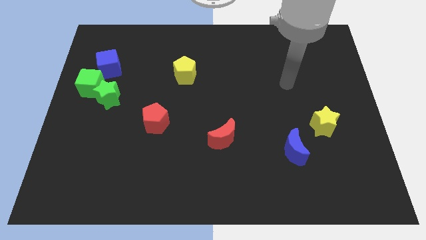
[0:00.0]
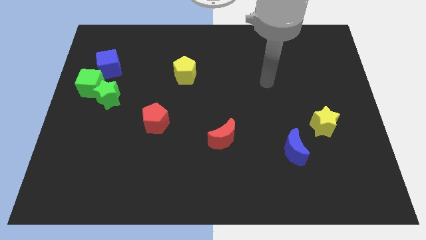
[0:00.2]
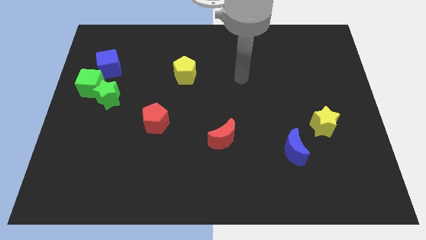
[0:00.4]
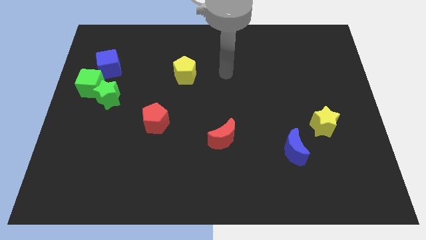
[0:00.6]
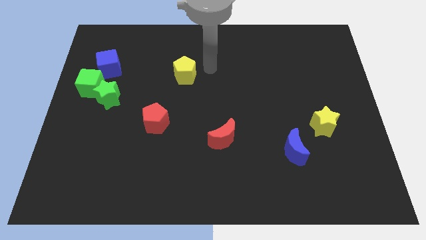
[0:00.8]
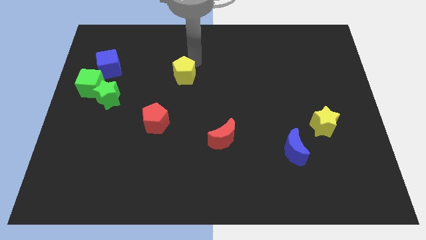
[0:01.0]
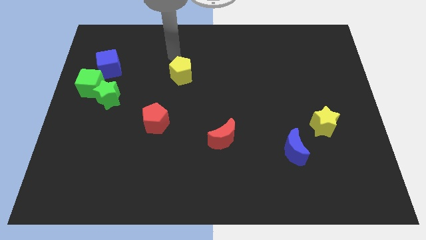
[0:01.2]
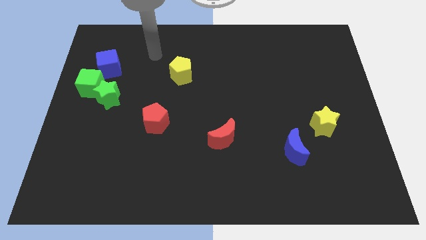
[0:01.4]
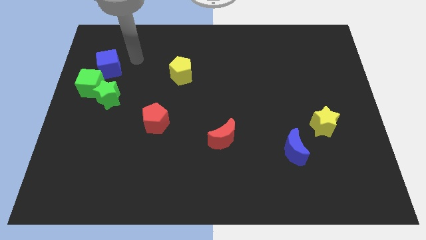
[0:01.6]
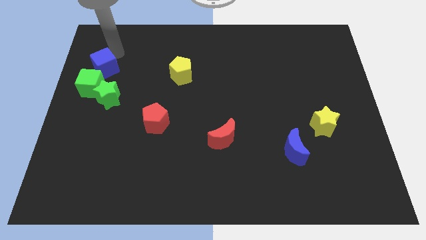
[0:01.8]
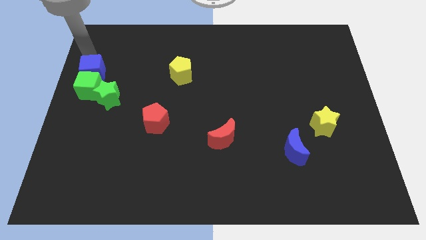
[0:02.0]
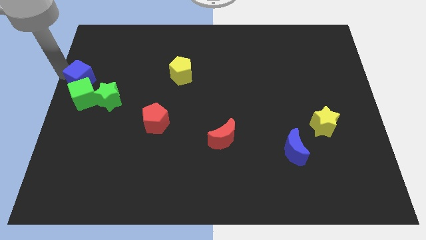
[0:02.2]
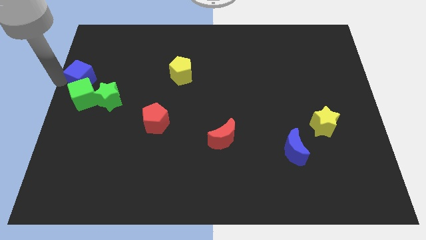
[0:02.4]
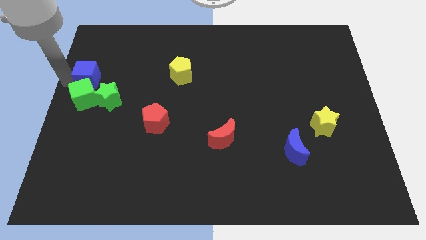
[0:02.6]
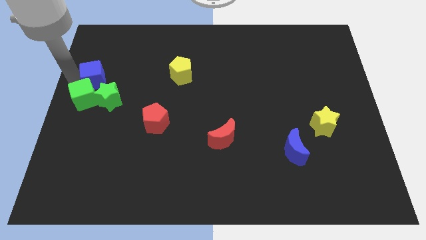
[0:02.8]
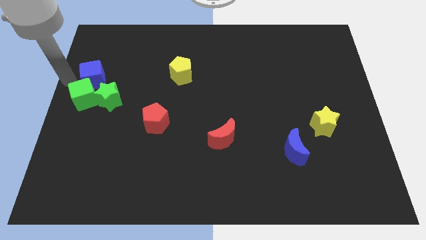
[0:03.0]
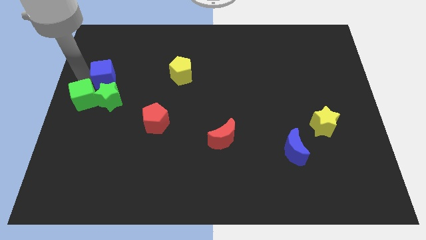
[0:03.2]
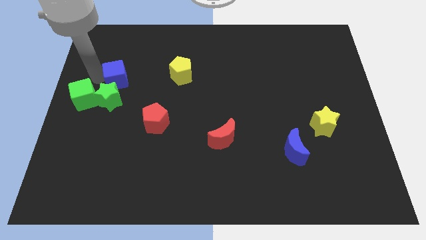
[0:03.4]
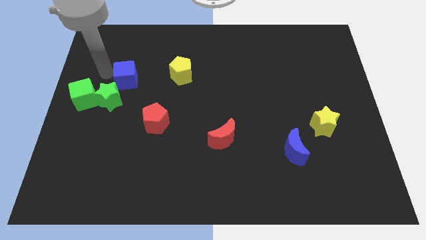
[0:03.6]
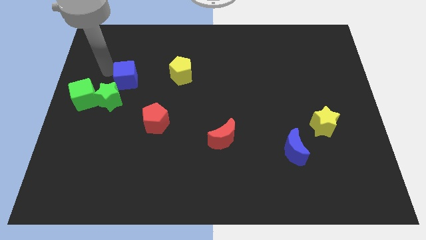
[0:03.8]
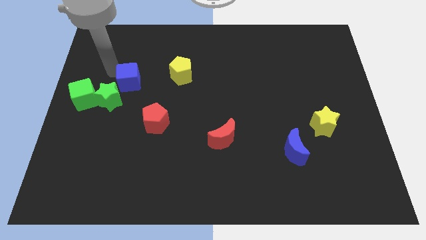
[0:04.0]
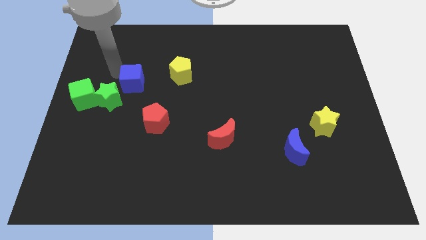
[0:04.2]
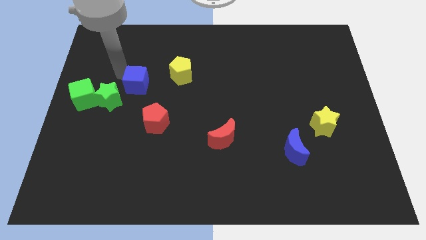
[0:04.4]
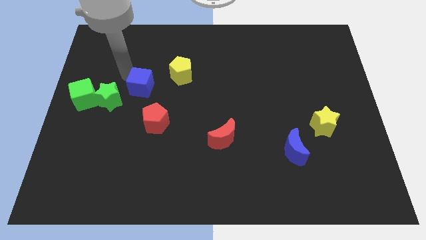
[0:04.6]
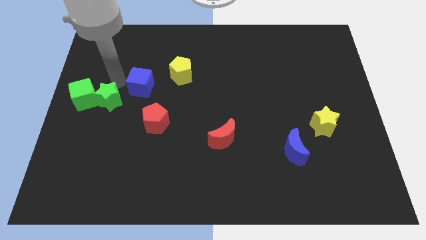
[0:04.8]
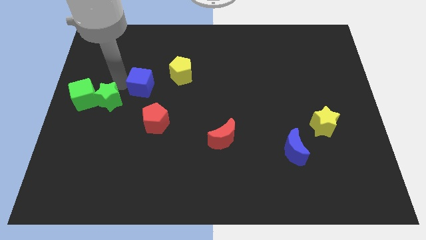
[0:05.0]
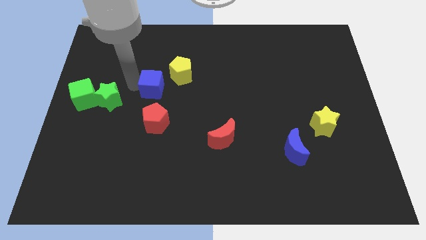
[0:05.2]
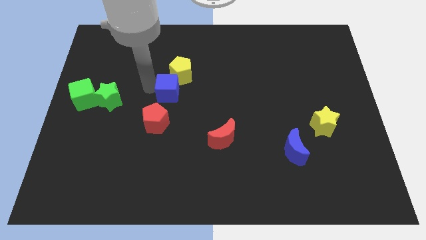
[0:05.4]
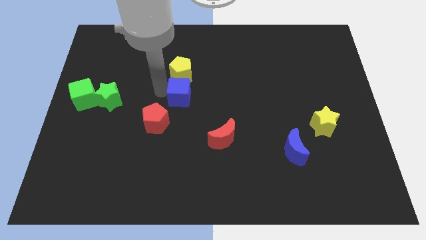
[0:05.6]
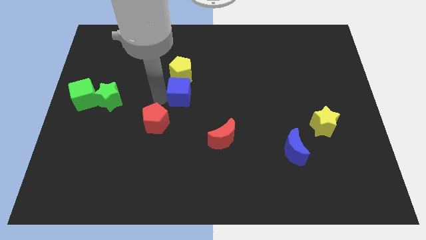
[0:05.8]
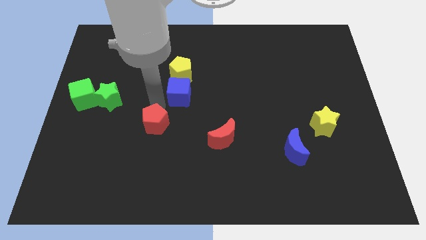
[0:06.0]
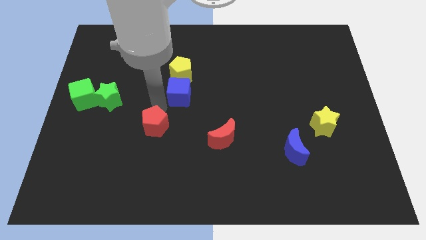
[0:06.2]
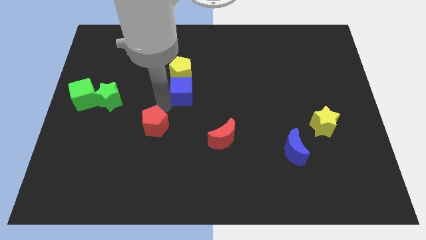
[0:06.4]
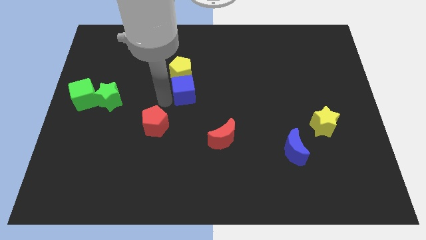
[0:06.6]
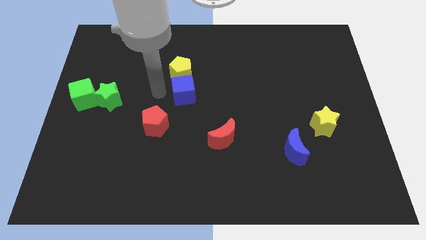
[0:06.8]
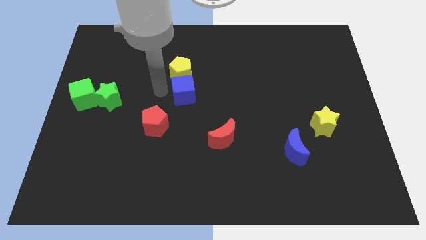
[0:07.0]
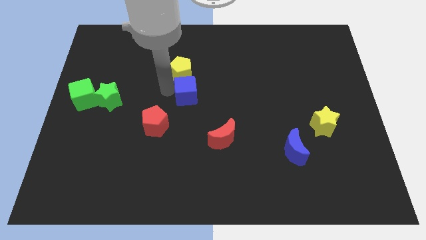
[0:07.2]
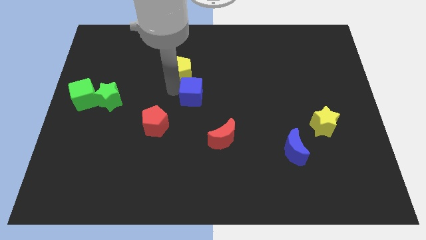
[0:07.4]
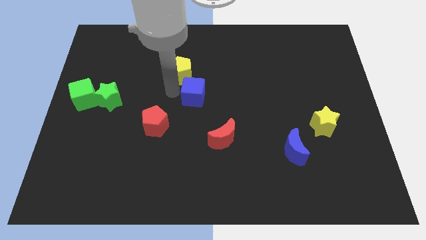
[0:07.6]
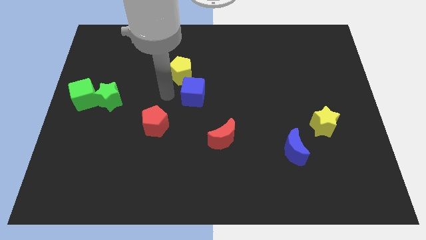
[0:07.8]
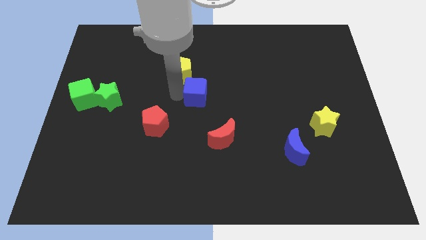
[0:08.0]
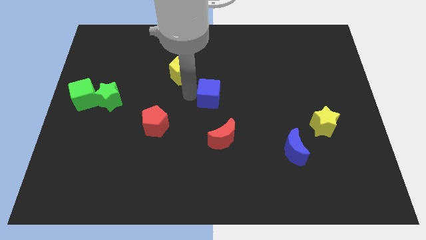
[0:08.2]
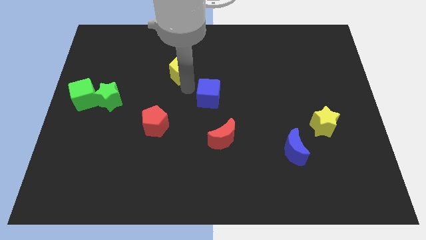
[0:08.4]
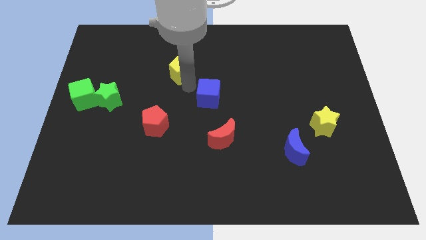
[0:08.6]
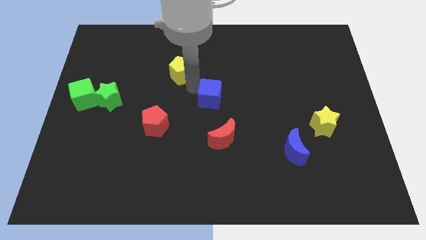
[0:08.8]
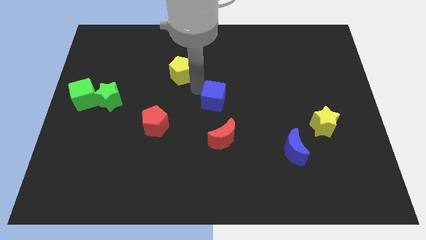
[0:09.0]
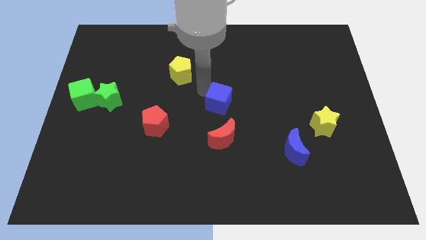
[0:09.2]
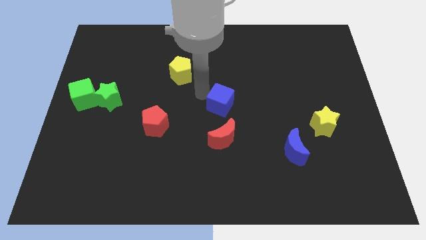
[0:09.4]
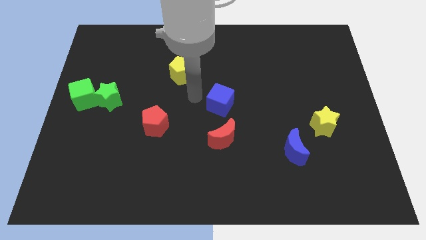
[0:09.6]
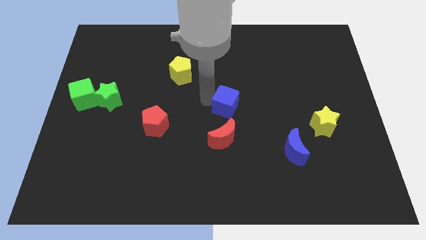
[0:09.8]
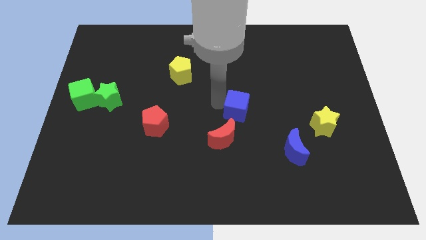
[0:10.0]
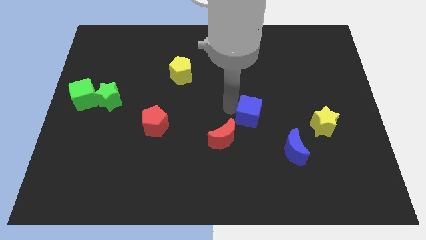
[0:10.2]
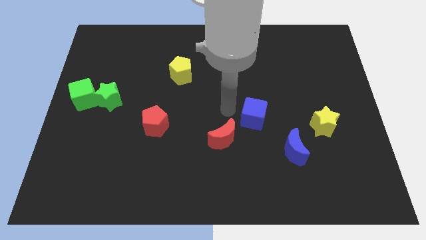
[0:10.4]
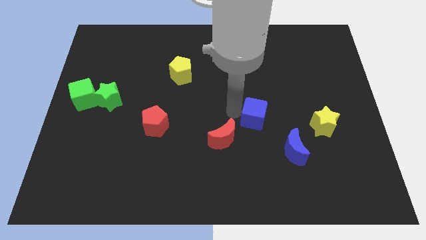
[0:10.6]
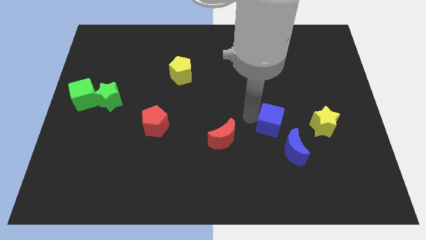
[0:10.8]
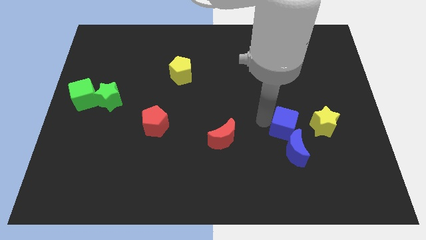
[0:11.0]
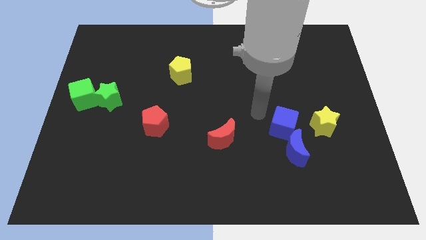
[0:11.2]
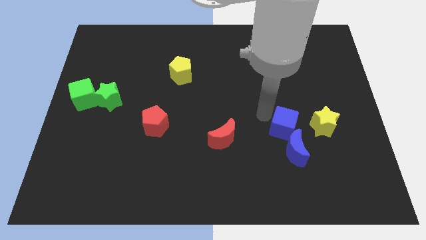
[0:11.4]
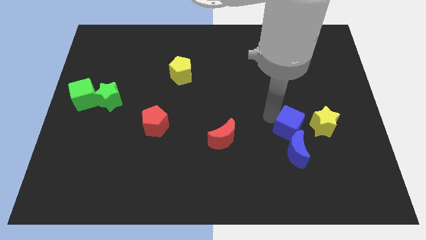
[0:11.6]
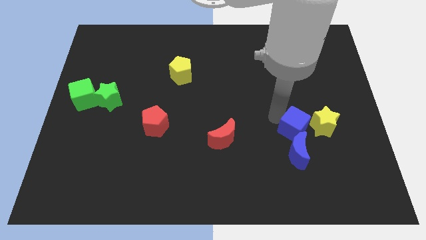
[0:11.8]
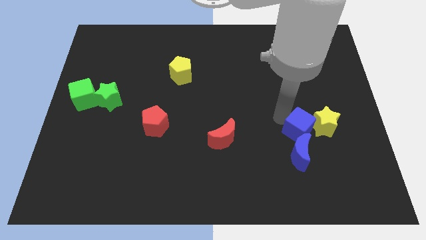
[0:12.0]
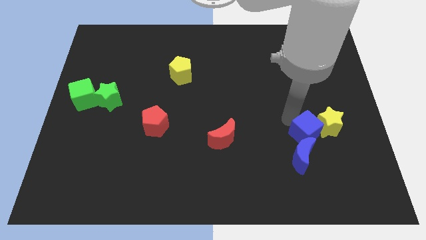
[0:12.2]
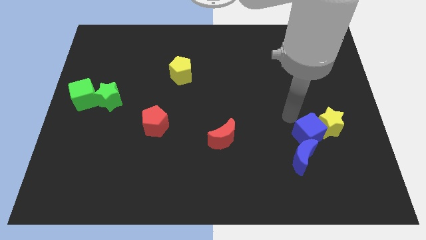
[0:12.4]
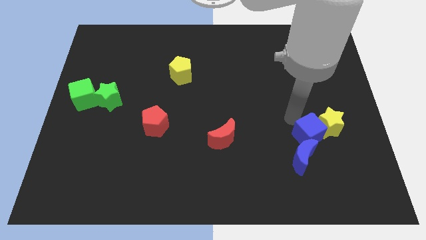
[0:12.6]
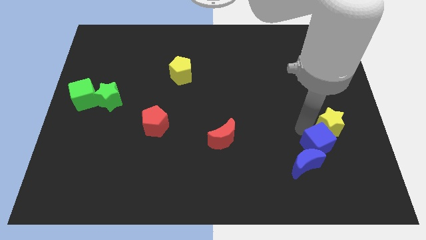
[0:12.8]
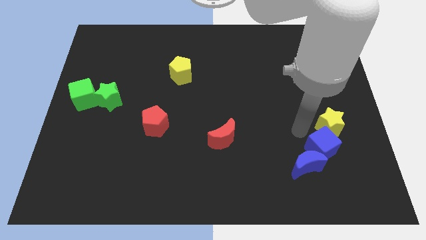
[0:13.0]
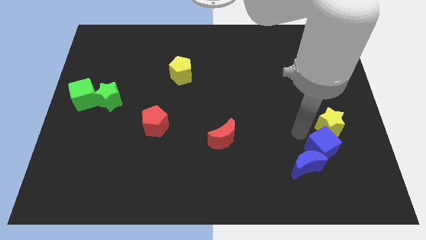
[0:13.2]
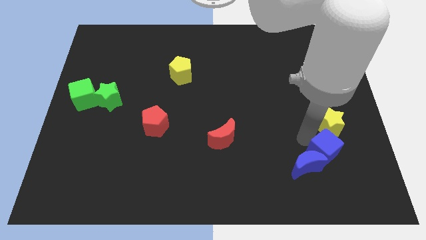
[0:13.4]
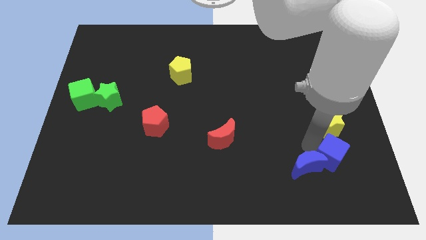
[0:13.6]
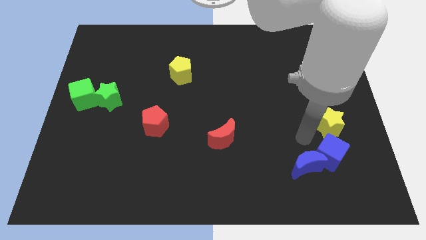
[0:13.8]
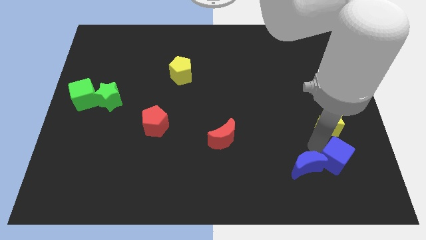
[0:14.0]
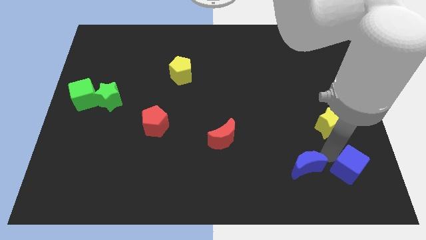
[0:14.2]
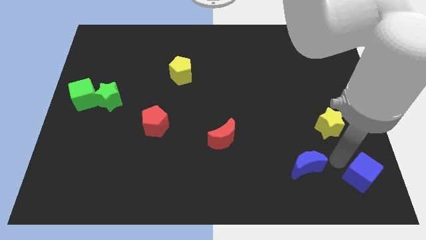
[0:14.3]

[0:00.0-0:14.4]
push the blue cube to the bottom right of the board

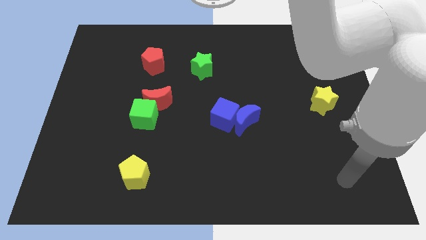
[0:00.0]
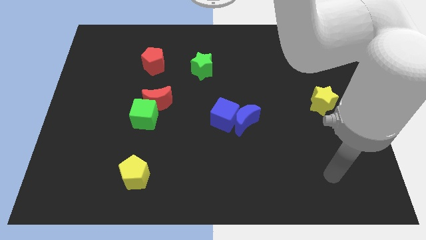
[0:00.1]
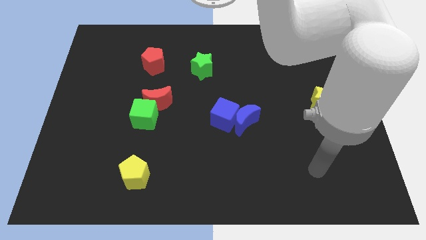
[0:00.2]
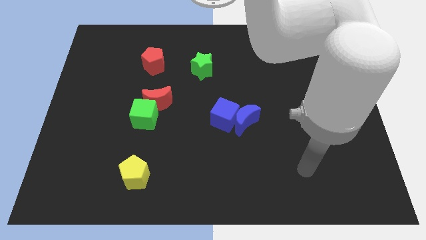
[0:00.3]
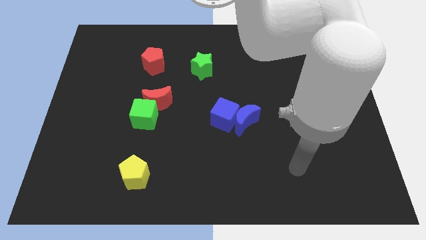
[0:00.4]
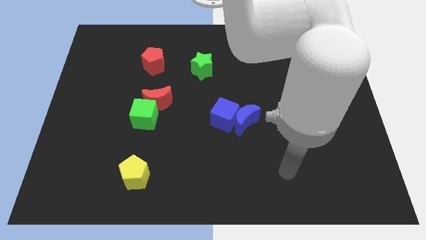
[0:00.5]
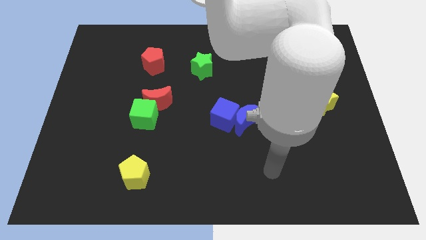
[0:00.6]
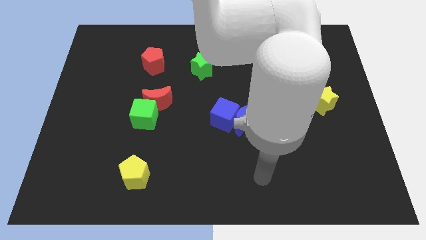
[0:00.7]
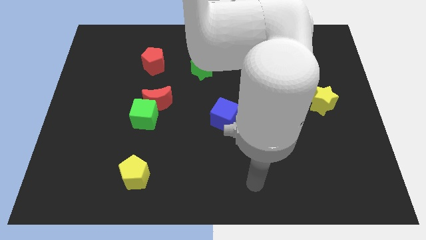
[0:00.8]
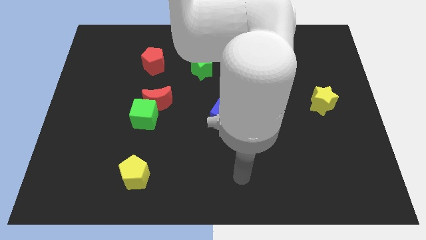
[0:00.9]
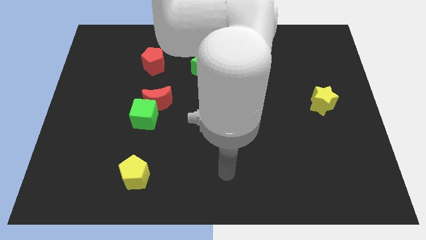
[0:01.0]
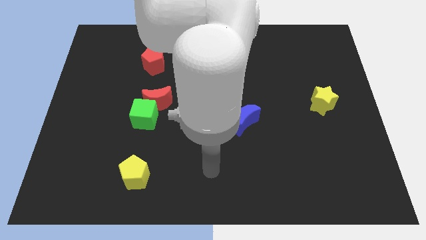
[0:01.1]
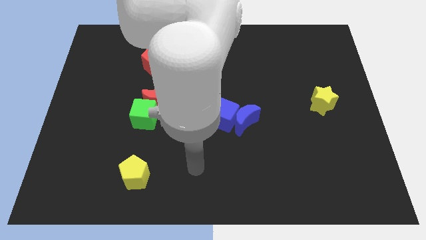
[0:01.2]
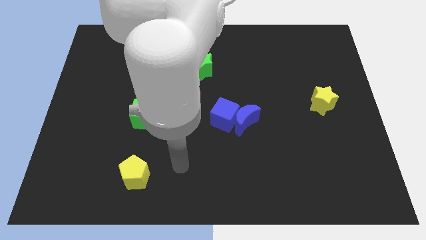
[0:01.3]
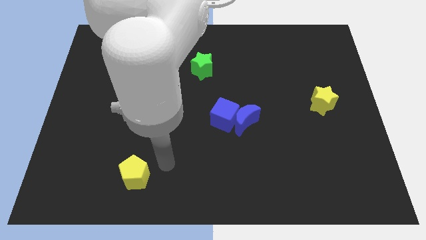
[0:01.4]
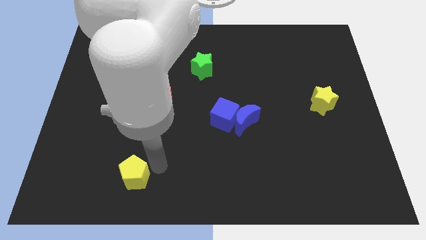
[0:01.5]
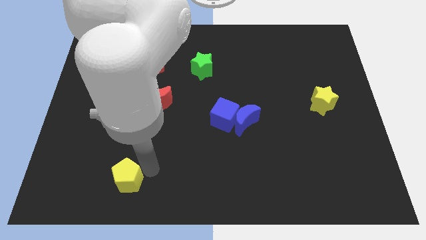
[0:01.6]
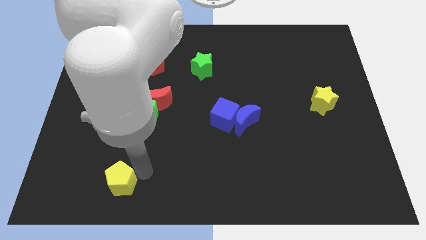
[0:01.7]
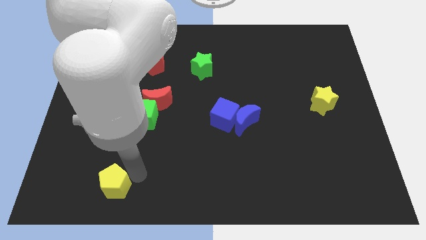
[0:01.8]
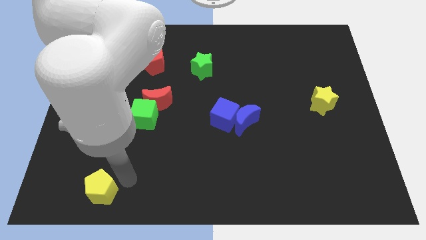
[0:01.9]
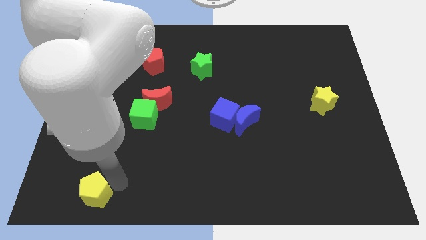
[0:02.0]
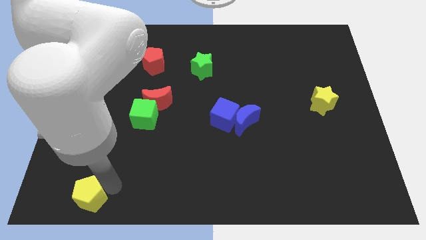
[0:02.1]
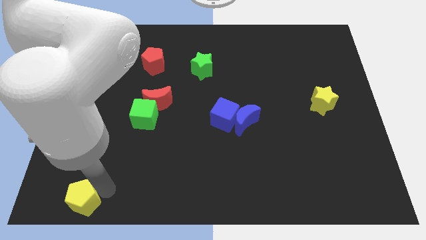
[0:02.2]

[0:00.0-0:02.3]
push the yellow pentagon to the bottom left
